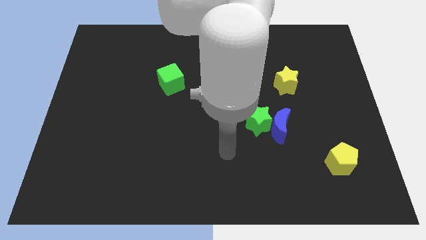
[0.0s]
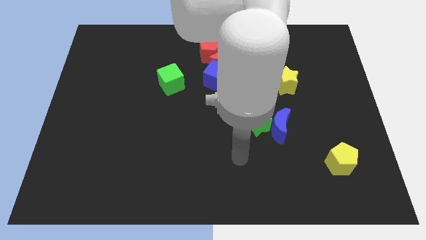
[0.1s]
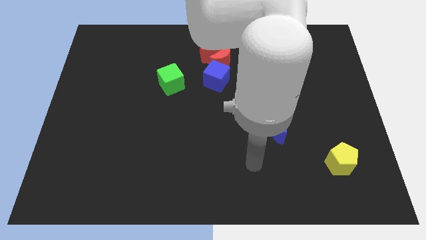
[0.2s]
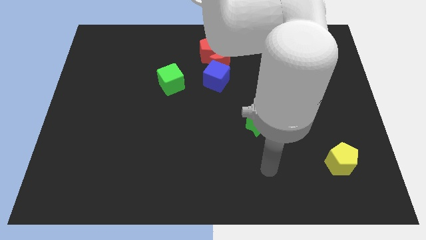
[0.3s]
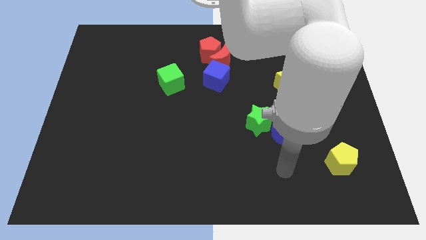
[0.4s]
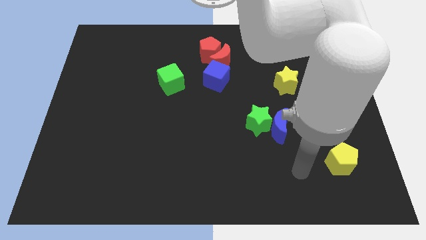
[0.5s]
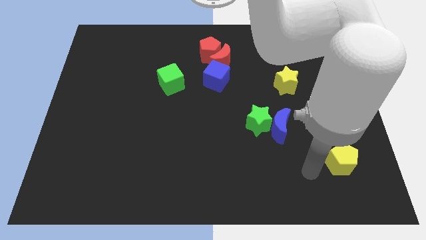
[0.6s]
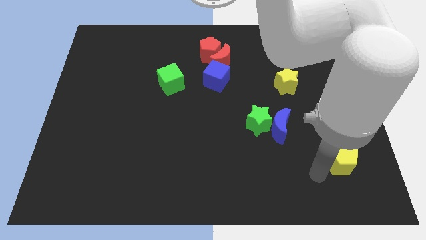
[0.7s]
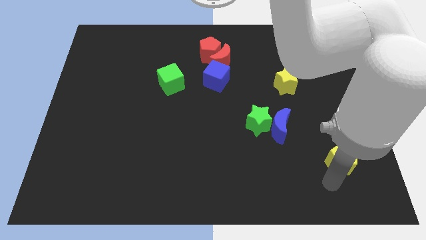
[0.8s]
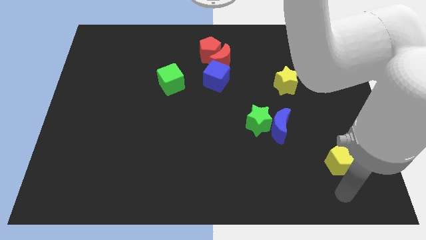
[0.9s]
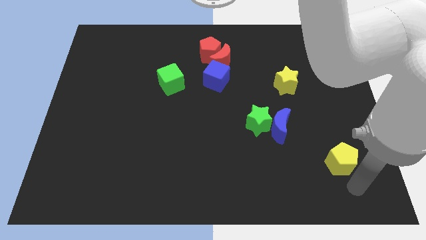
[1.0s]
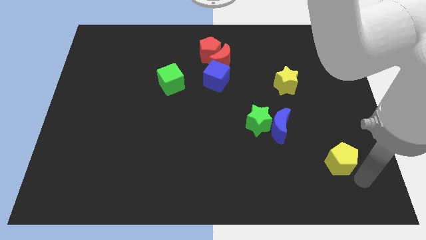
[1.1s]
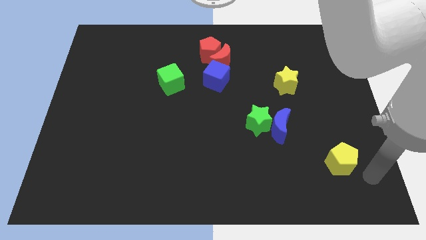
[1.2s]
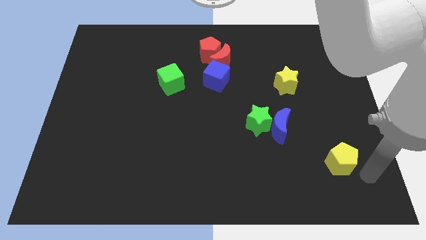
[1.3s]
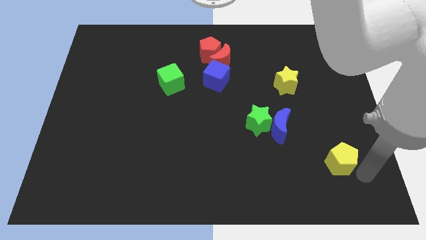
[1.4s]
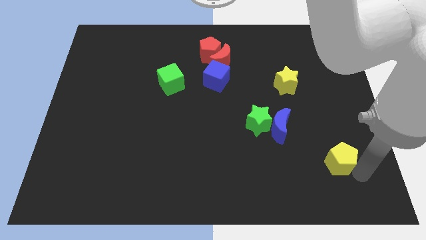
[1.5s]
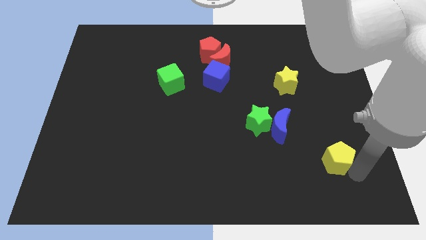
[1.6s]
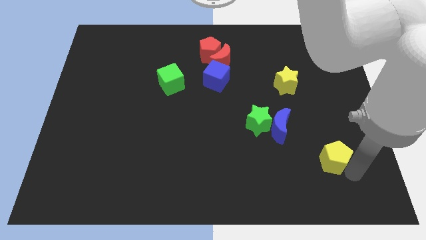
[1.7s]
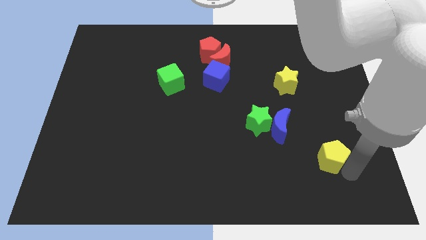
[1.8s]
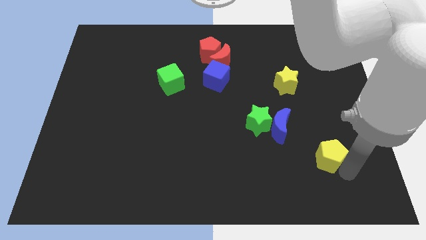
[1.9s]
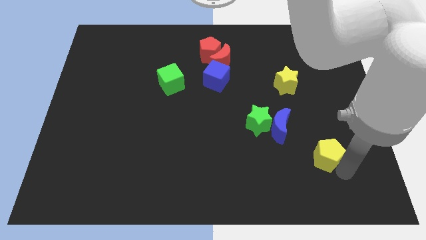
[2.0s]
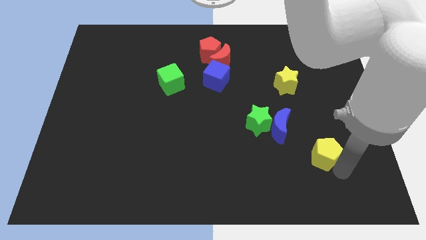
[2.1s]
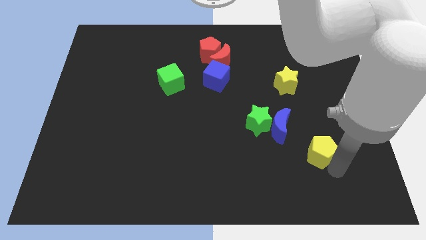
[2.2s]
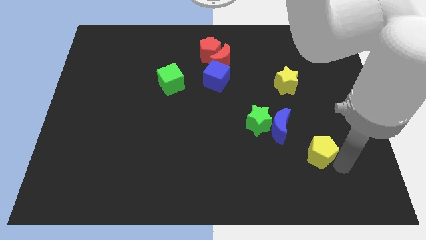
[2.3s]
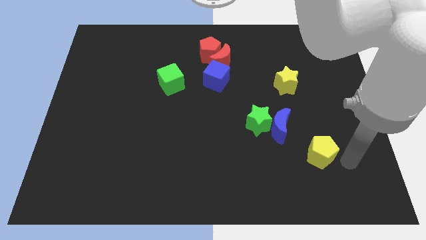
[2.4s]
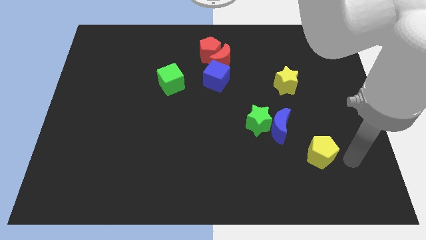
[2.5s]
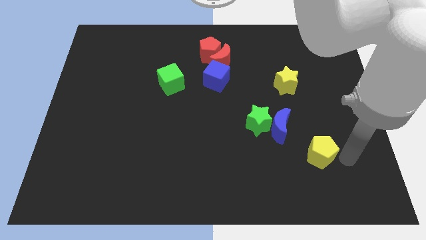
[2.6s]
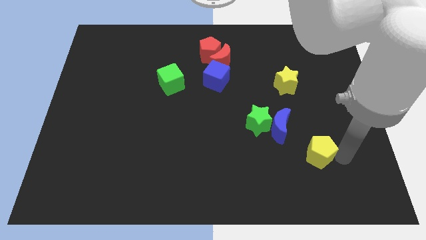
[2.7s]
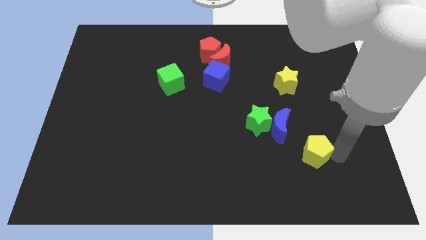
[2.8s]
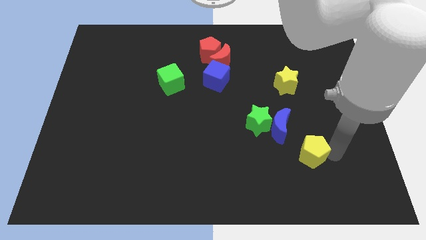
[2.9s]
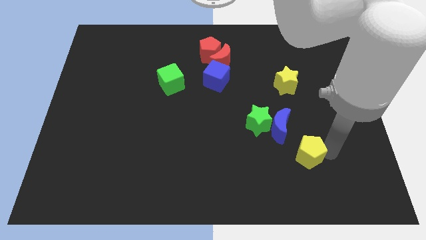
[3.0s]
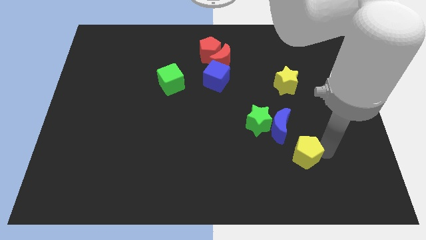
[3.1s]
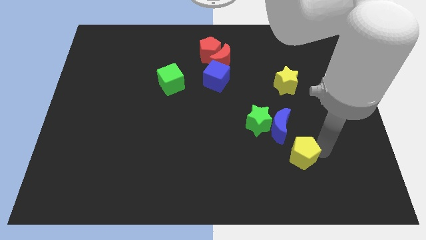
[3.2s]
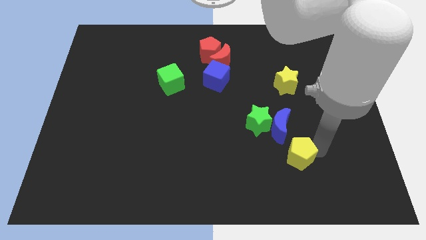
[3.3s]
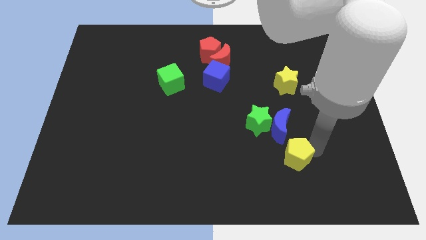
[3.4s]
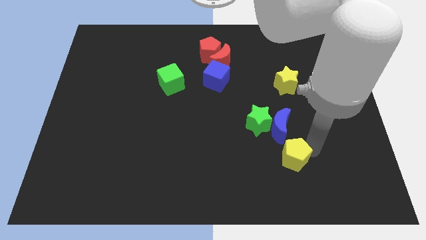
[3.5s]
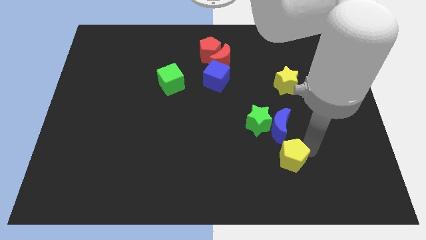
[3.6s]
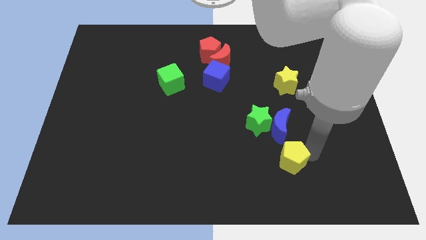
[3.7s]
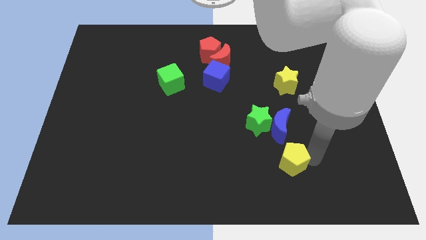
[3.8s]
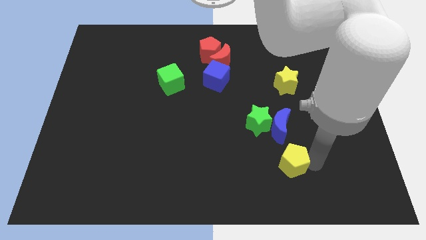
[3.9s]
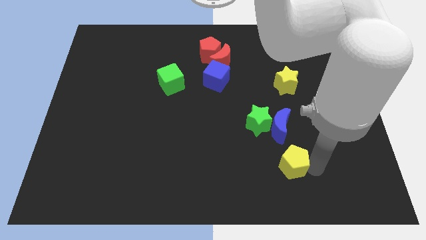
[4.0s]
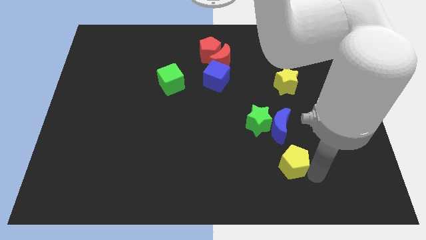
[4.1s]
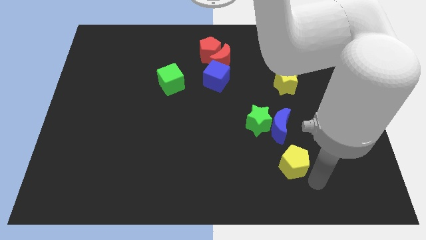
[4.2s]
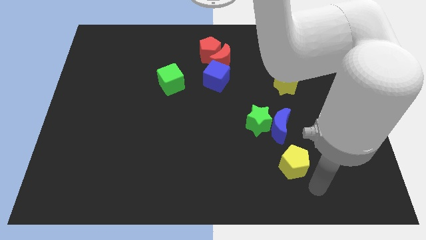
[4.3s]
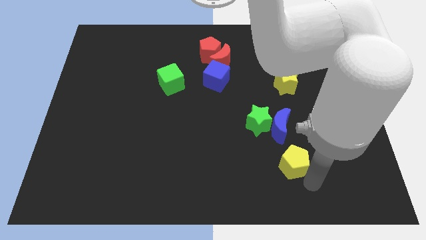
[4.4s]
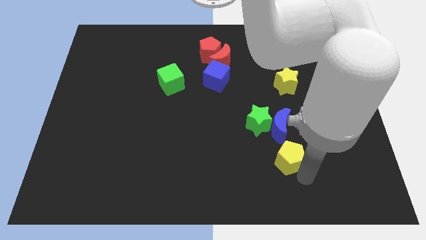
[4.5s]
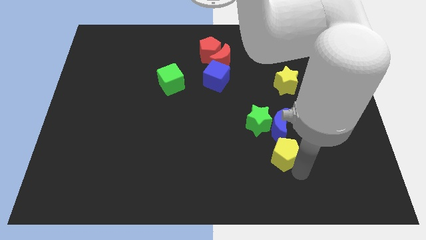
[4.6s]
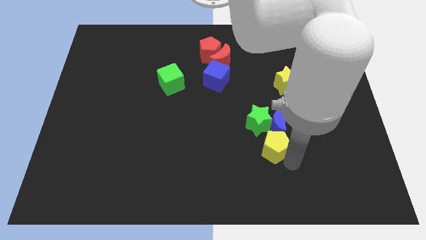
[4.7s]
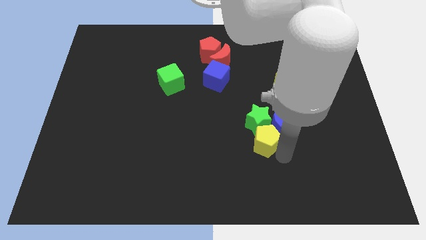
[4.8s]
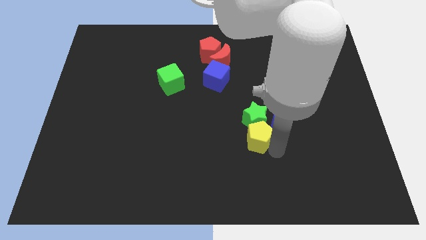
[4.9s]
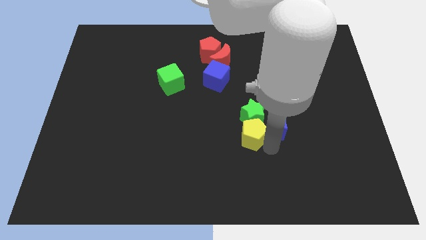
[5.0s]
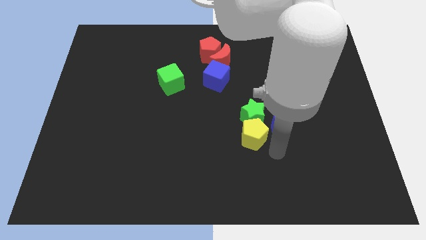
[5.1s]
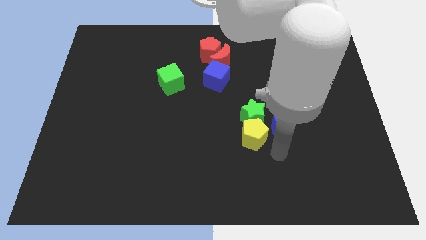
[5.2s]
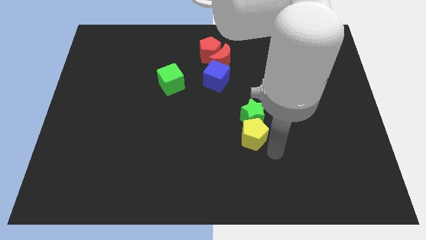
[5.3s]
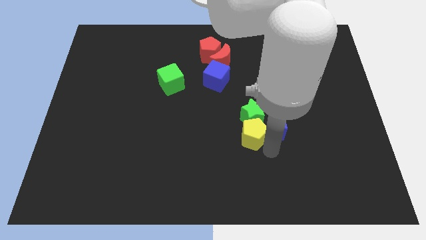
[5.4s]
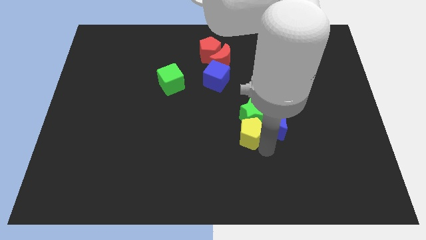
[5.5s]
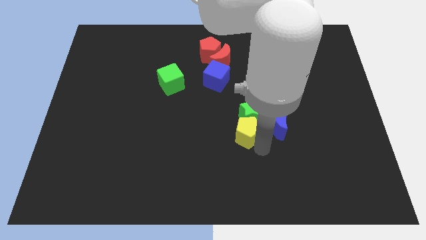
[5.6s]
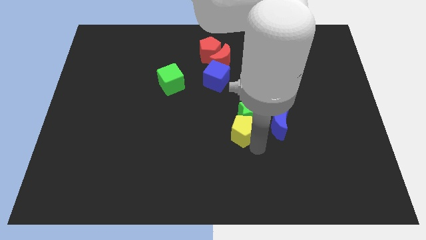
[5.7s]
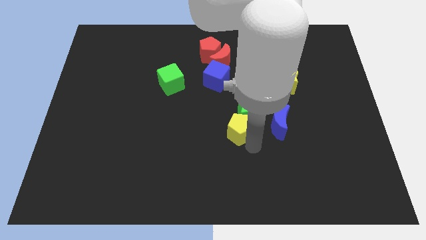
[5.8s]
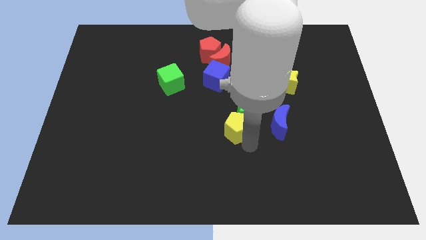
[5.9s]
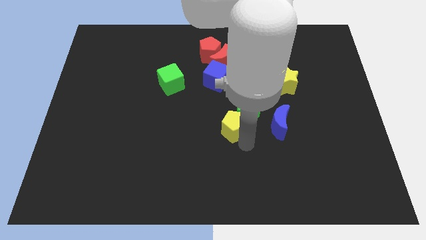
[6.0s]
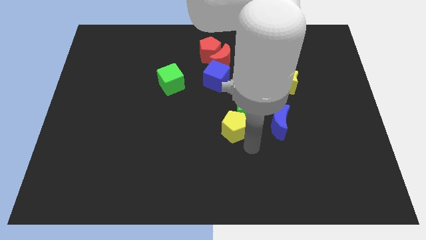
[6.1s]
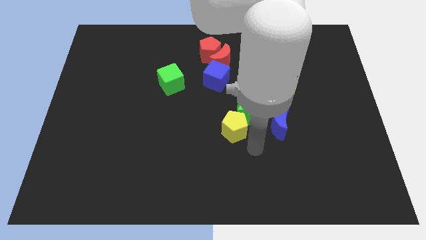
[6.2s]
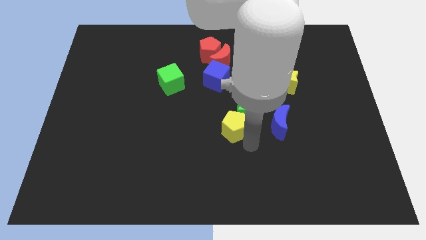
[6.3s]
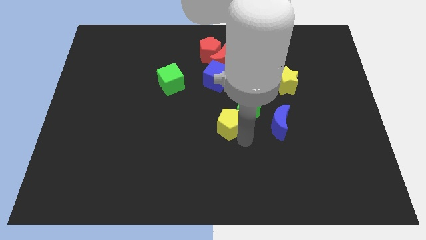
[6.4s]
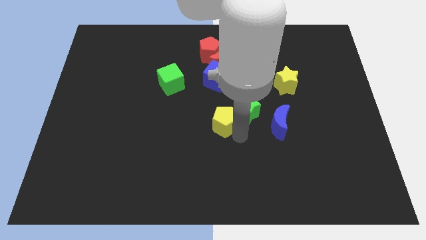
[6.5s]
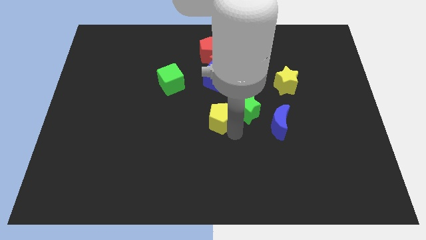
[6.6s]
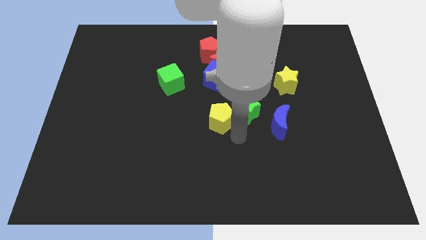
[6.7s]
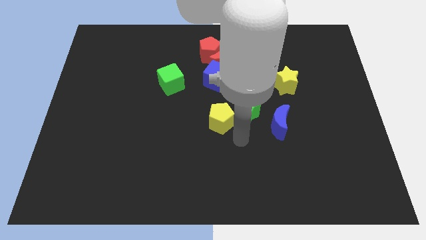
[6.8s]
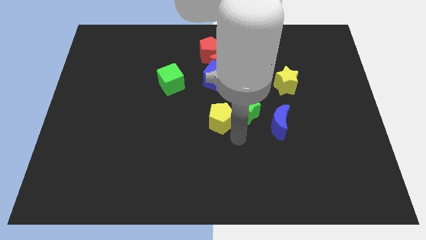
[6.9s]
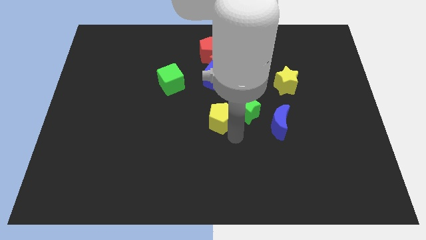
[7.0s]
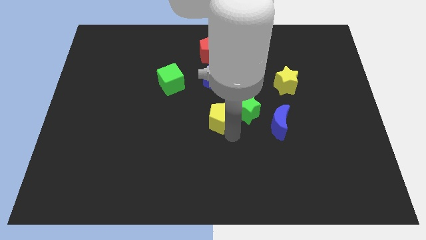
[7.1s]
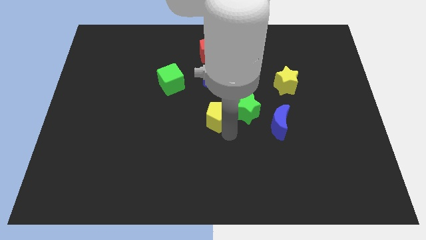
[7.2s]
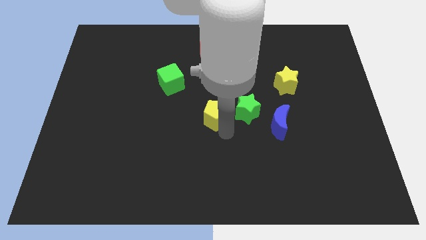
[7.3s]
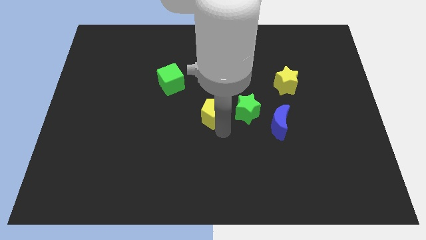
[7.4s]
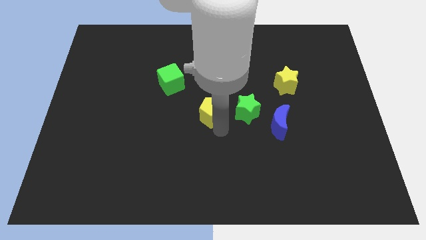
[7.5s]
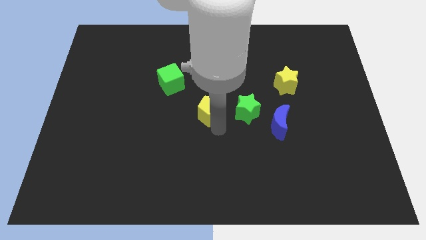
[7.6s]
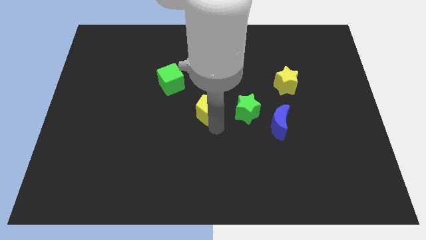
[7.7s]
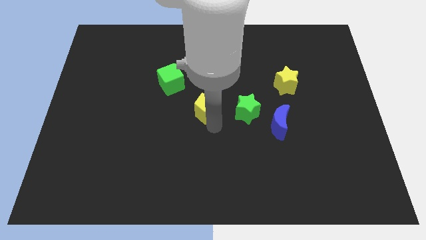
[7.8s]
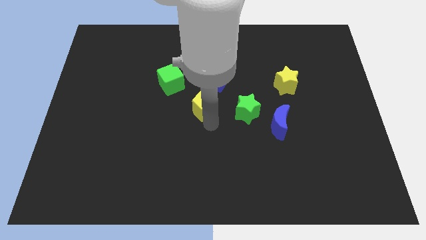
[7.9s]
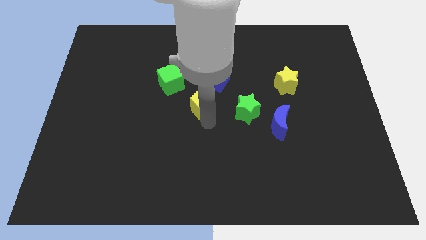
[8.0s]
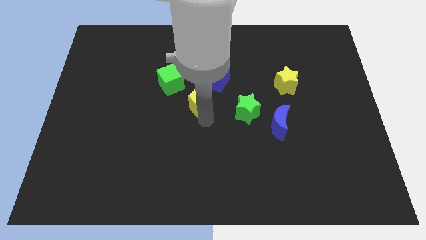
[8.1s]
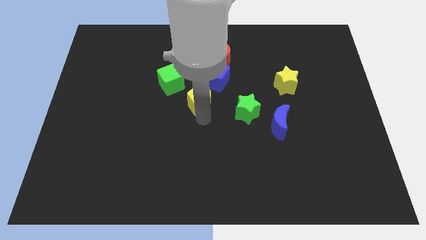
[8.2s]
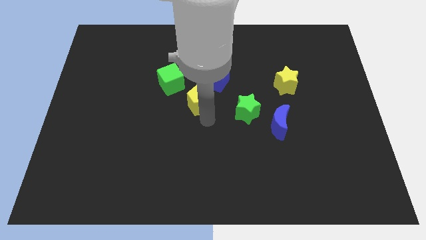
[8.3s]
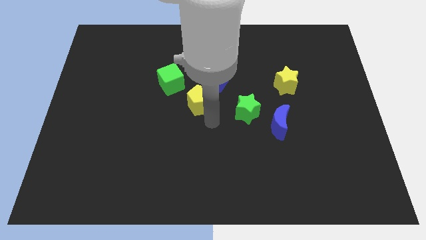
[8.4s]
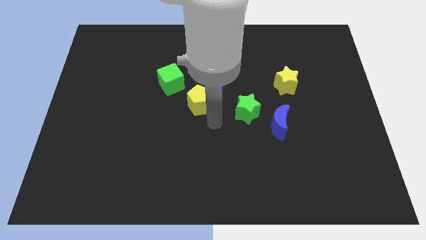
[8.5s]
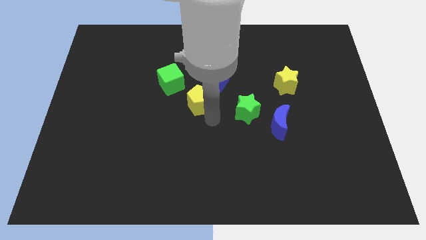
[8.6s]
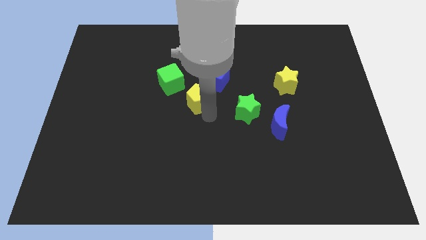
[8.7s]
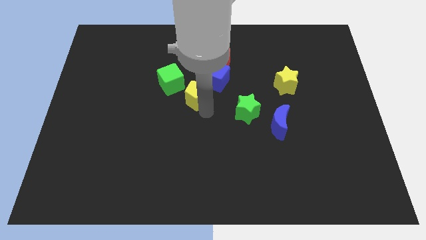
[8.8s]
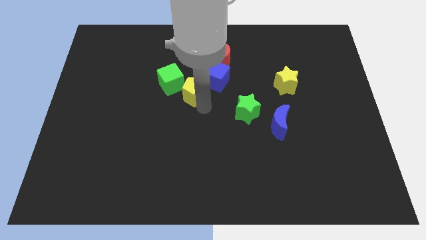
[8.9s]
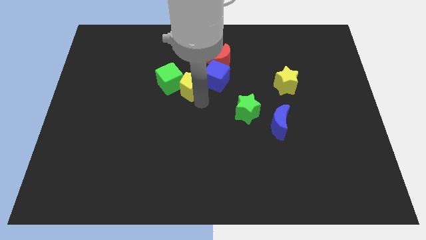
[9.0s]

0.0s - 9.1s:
slide the yellow pentagon towards the green cube
